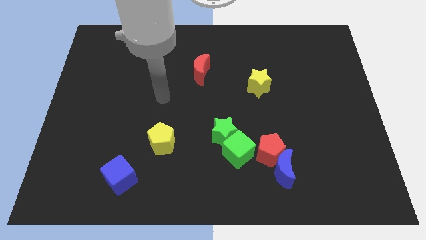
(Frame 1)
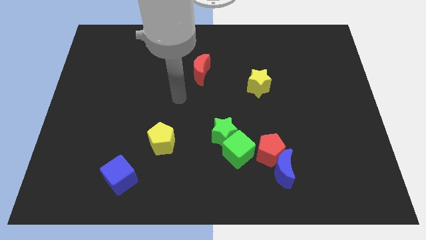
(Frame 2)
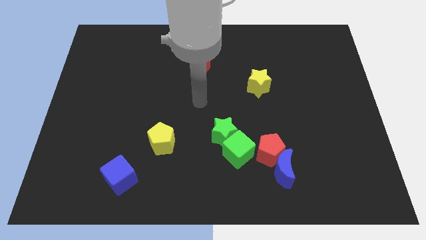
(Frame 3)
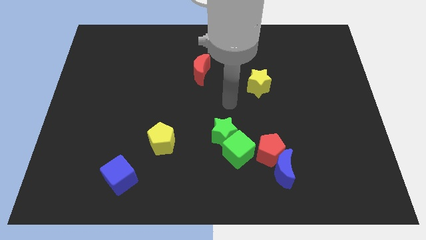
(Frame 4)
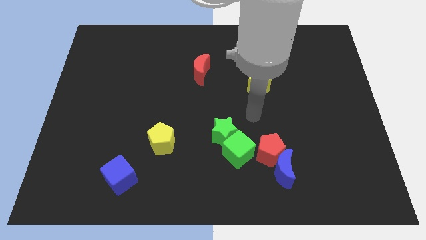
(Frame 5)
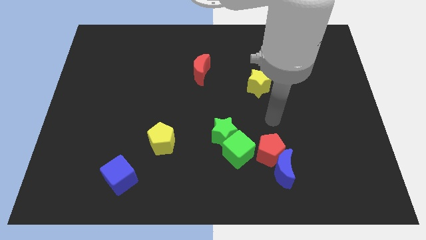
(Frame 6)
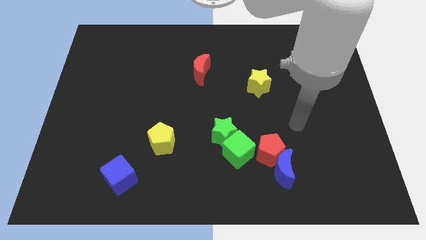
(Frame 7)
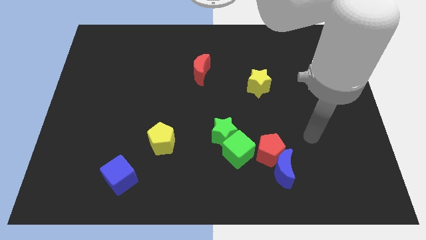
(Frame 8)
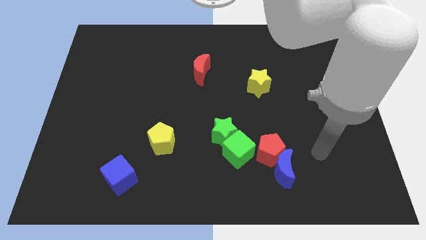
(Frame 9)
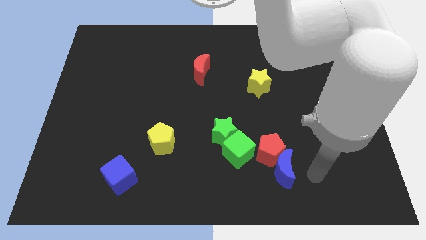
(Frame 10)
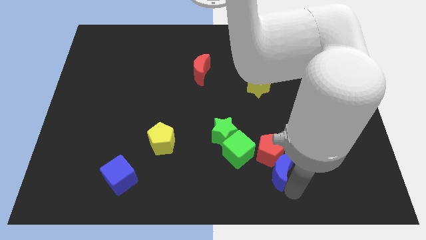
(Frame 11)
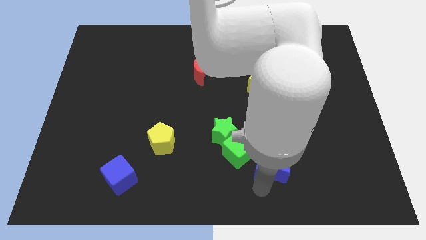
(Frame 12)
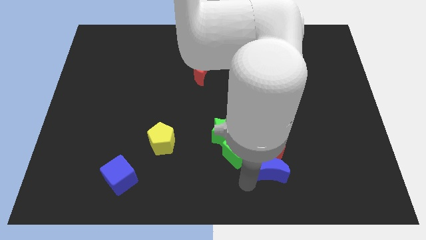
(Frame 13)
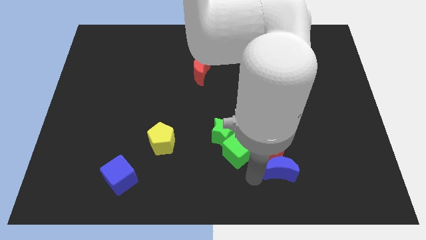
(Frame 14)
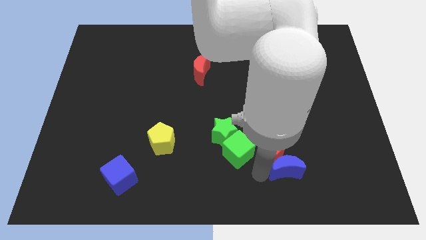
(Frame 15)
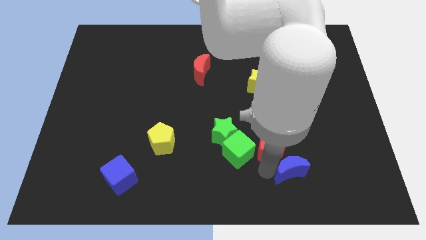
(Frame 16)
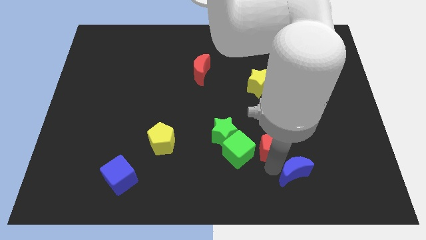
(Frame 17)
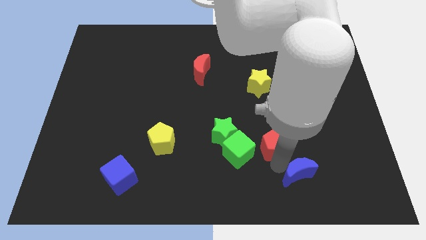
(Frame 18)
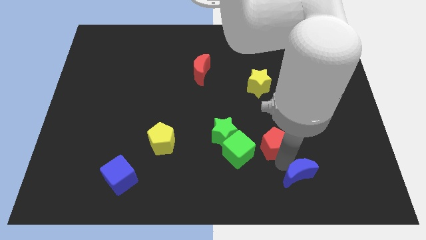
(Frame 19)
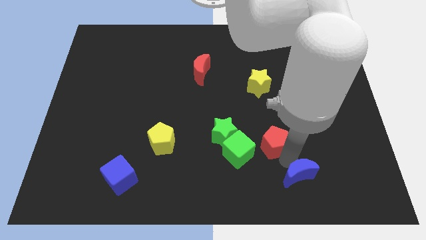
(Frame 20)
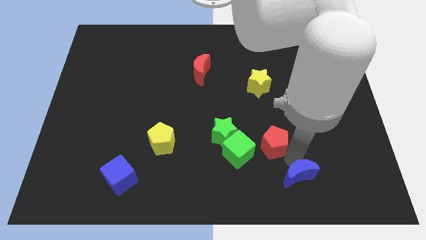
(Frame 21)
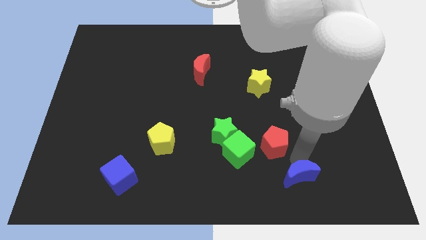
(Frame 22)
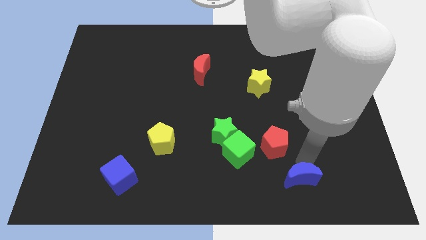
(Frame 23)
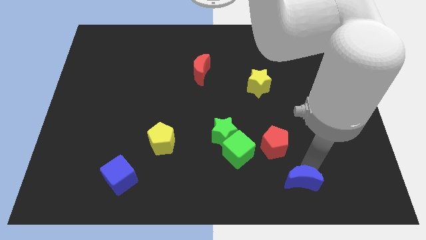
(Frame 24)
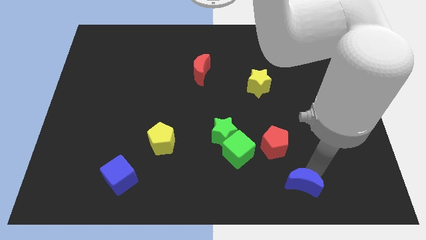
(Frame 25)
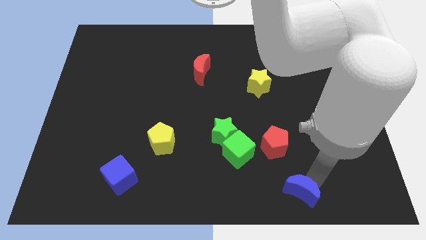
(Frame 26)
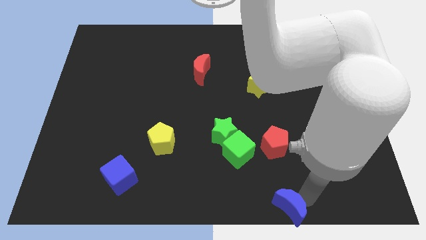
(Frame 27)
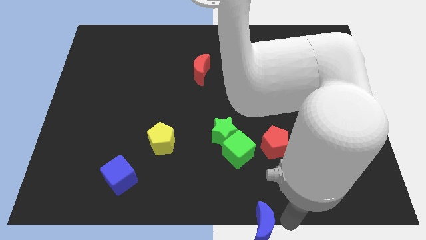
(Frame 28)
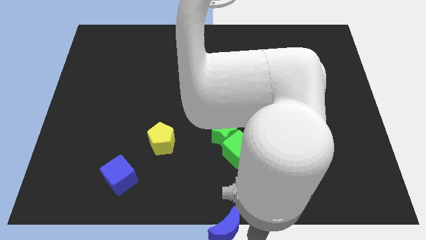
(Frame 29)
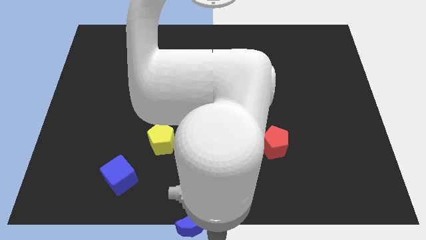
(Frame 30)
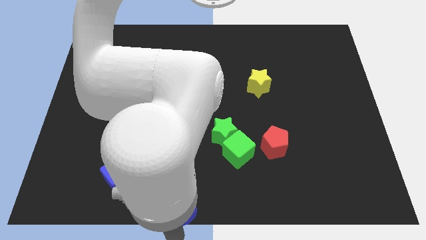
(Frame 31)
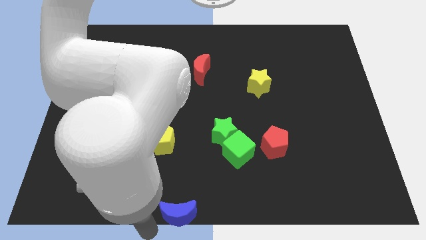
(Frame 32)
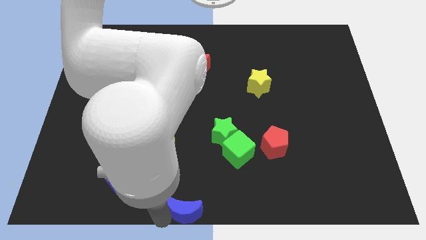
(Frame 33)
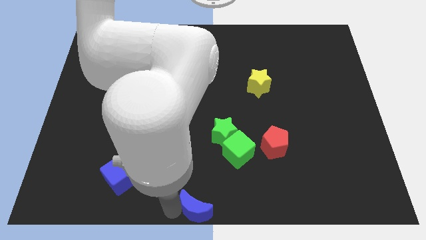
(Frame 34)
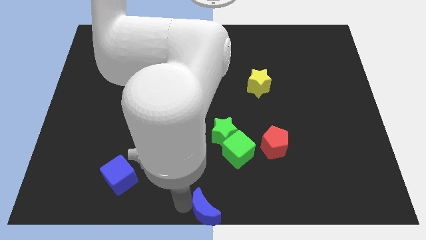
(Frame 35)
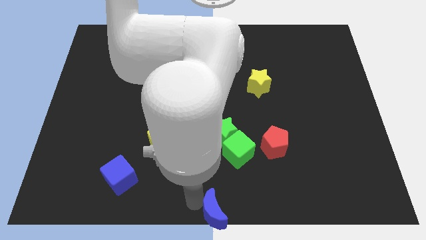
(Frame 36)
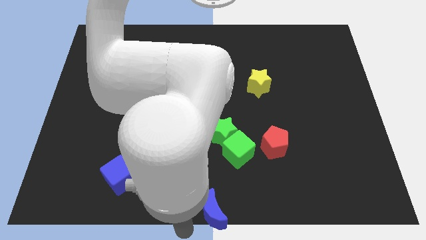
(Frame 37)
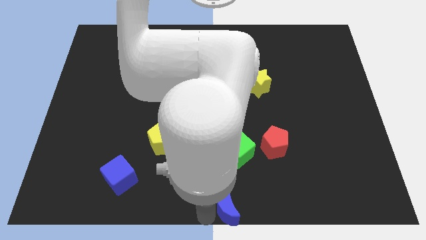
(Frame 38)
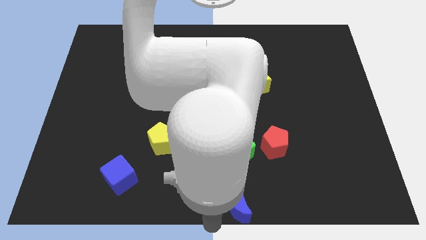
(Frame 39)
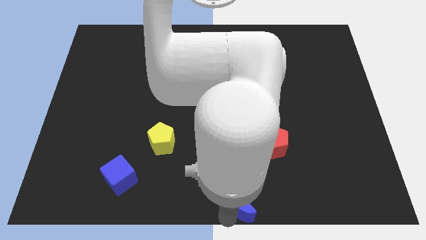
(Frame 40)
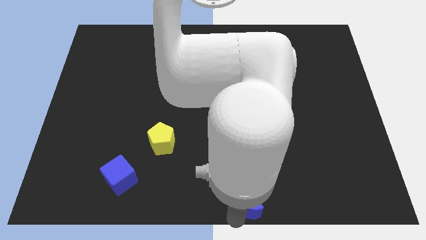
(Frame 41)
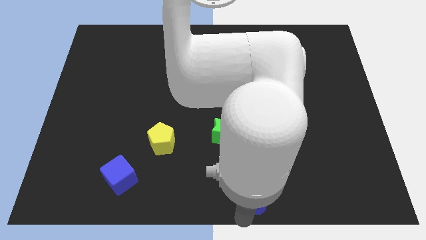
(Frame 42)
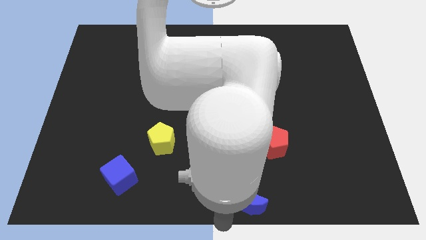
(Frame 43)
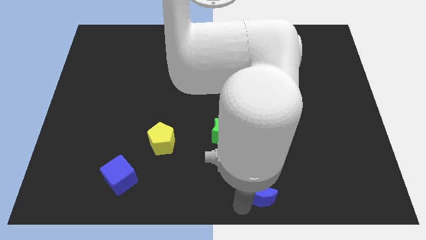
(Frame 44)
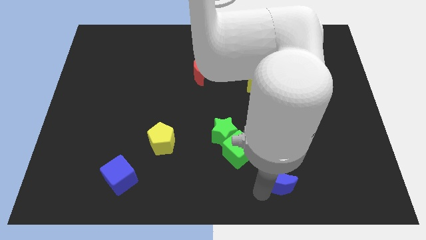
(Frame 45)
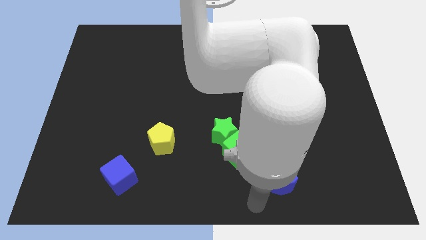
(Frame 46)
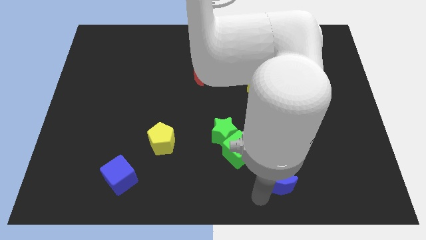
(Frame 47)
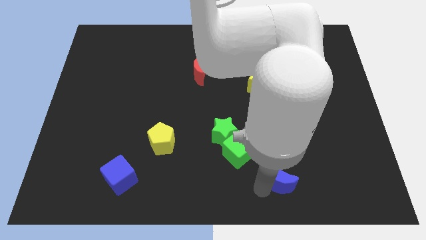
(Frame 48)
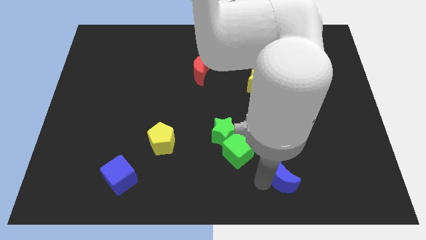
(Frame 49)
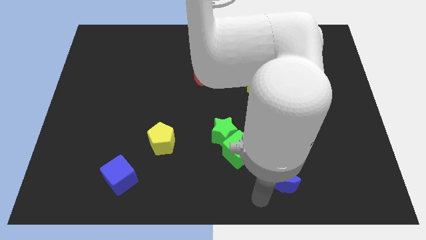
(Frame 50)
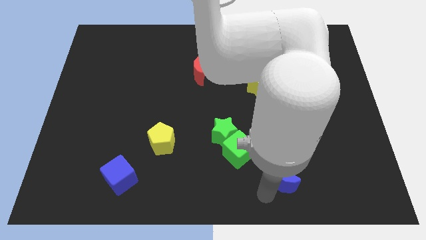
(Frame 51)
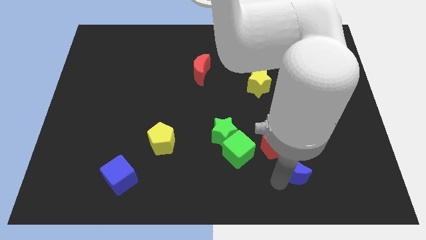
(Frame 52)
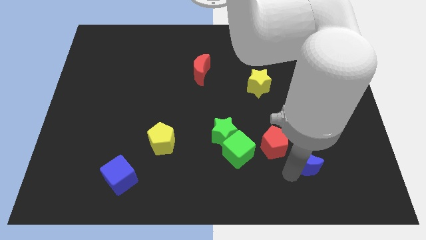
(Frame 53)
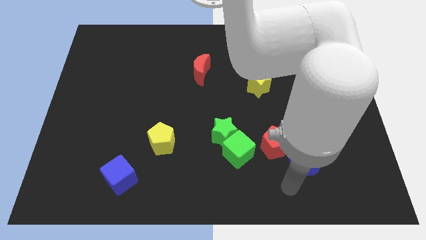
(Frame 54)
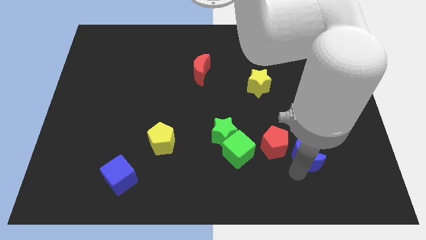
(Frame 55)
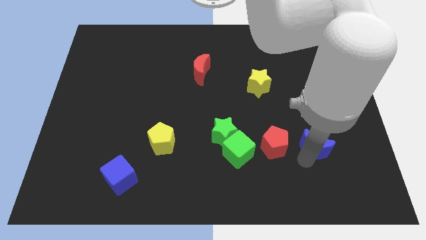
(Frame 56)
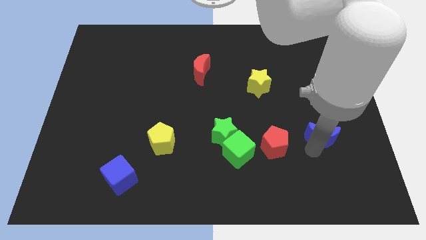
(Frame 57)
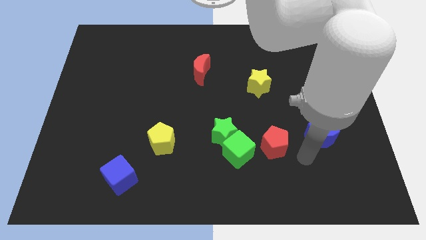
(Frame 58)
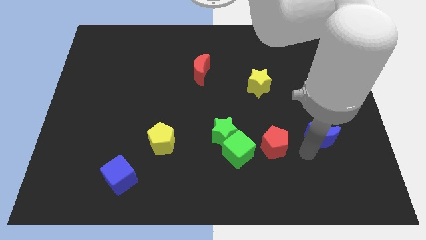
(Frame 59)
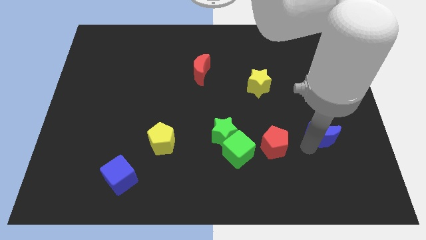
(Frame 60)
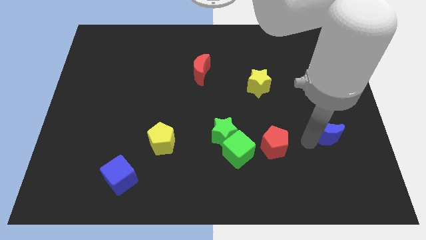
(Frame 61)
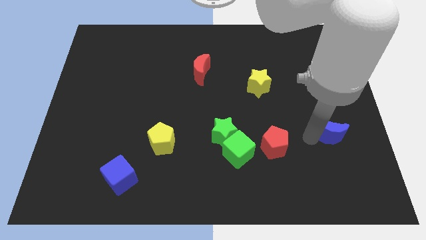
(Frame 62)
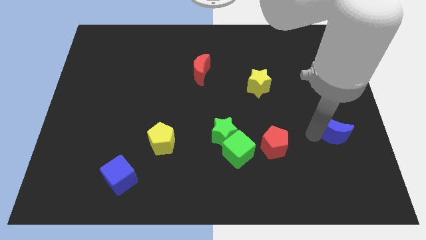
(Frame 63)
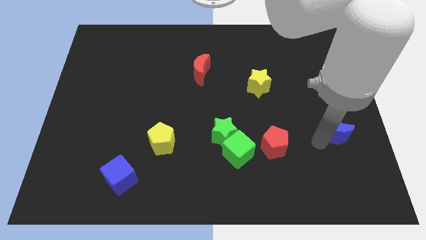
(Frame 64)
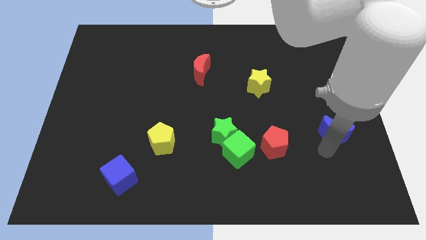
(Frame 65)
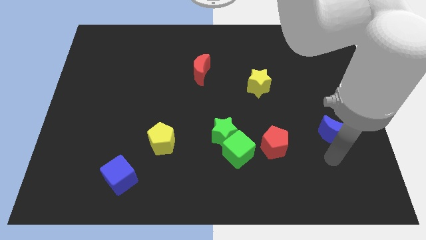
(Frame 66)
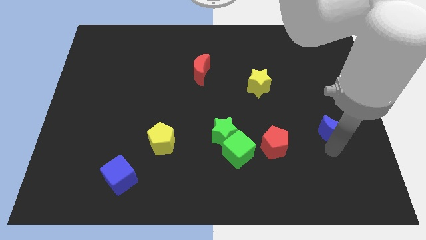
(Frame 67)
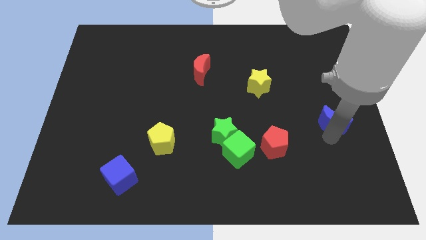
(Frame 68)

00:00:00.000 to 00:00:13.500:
push the blue moon to the right side
